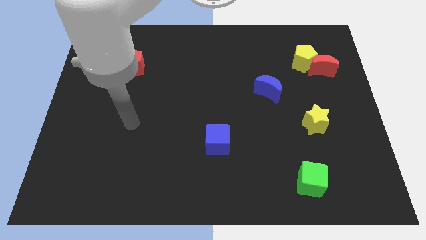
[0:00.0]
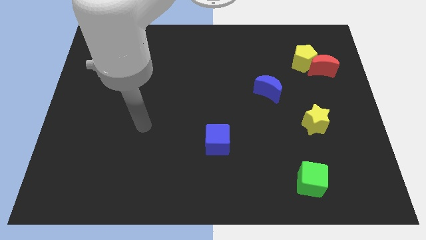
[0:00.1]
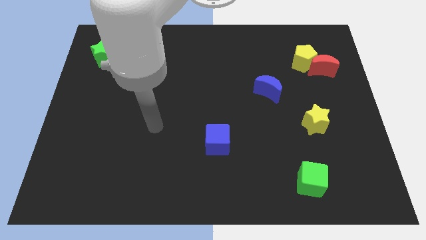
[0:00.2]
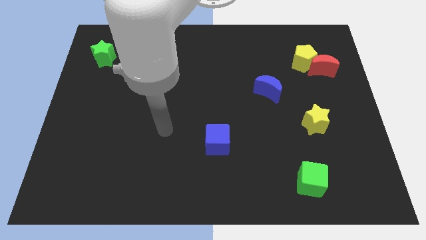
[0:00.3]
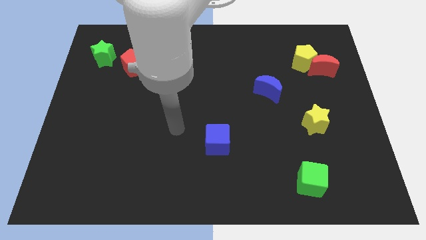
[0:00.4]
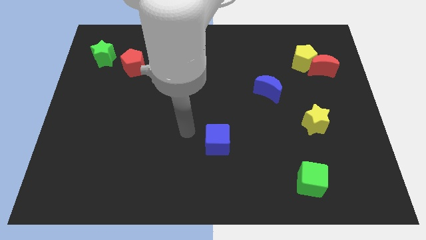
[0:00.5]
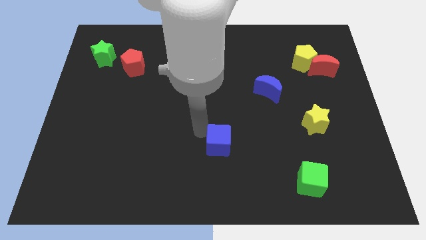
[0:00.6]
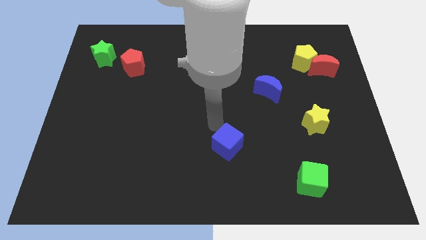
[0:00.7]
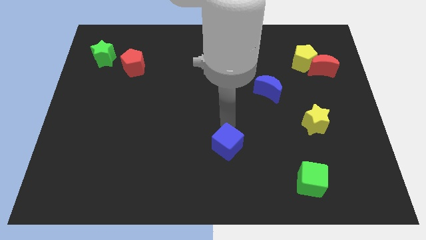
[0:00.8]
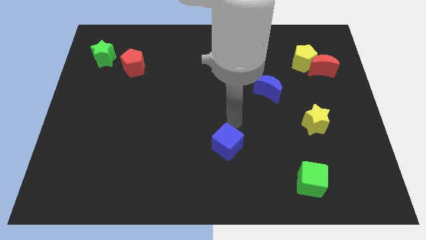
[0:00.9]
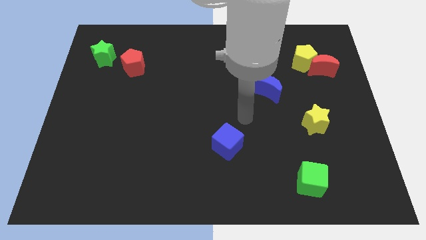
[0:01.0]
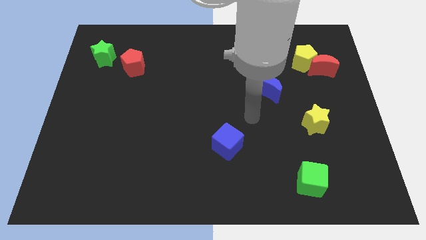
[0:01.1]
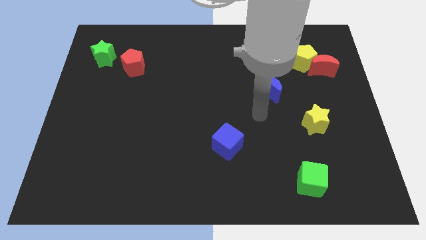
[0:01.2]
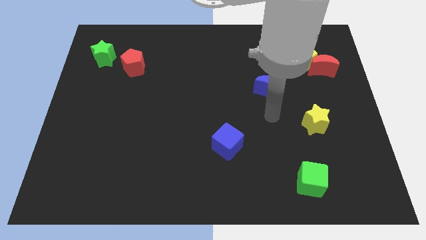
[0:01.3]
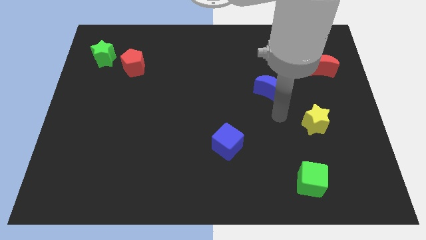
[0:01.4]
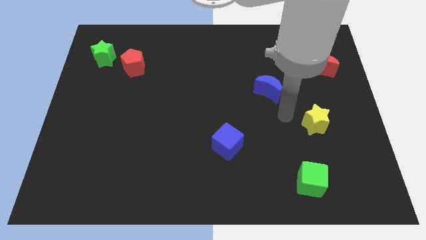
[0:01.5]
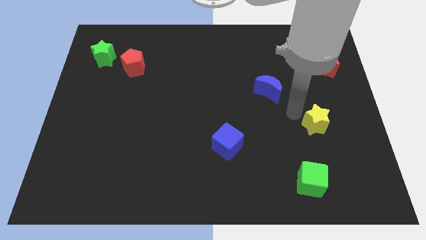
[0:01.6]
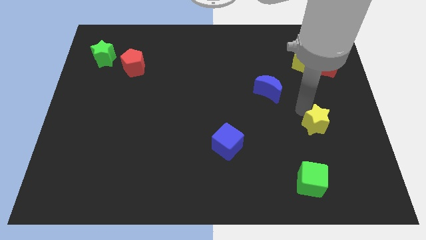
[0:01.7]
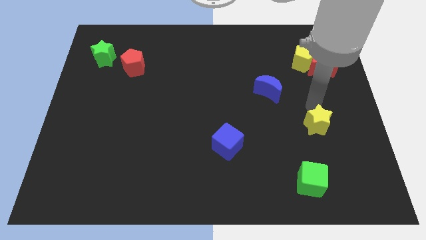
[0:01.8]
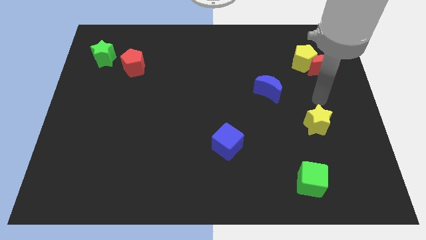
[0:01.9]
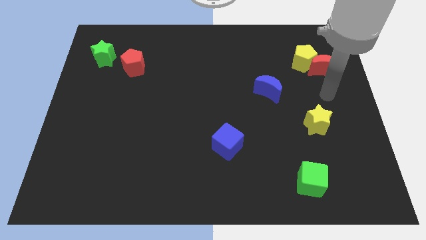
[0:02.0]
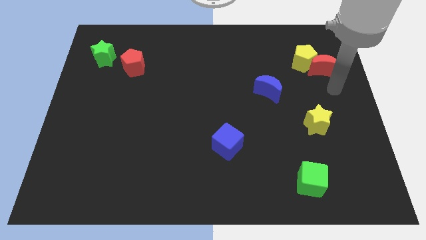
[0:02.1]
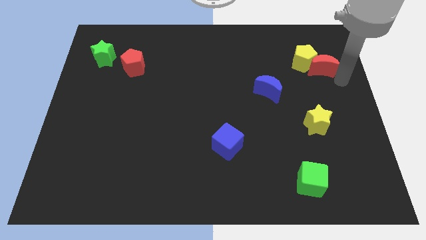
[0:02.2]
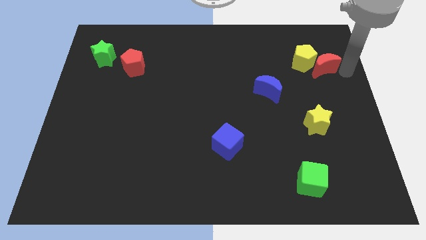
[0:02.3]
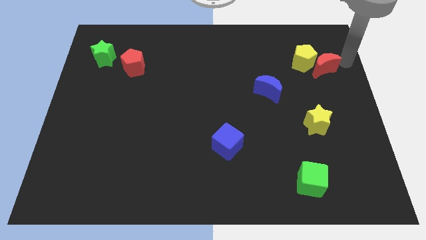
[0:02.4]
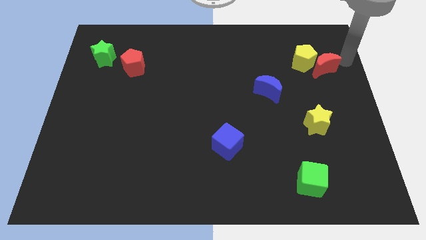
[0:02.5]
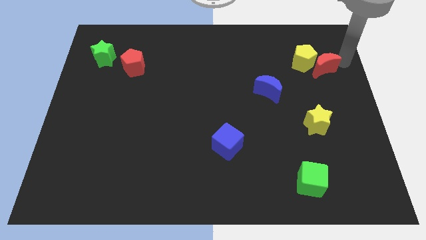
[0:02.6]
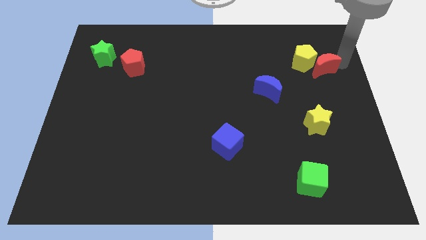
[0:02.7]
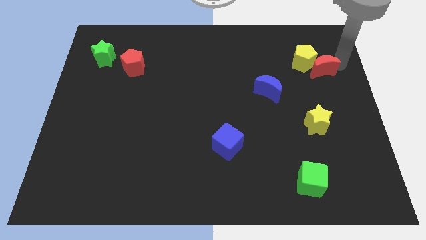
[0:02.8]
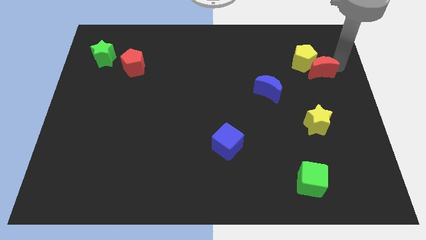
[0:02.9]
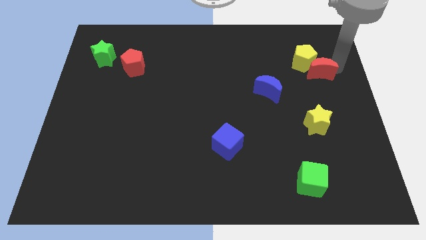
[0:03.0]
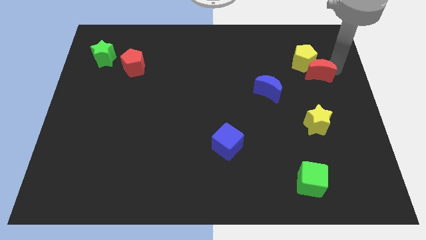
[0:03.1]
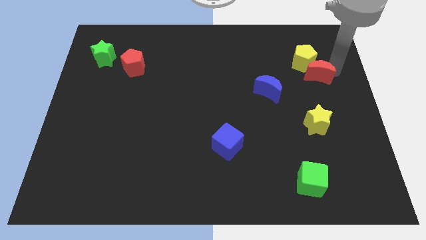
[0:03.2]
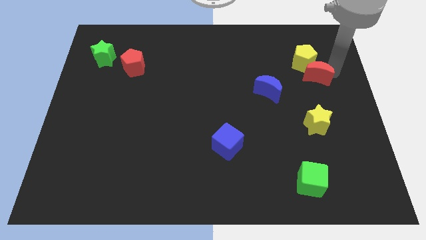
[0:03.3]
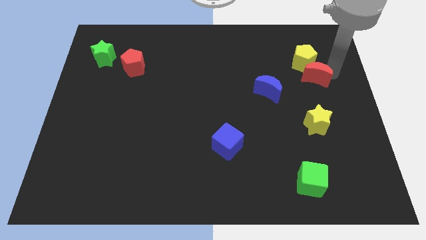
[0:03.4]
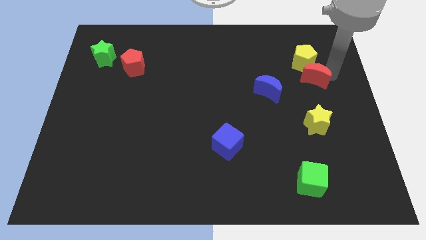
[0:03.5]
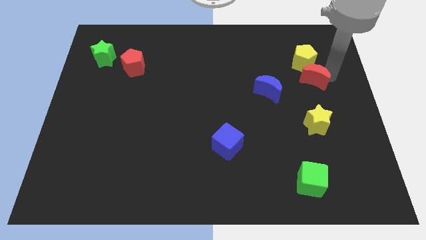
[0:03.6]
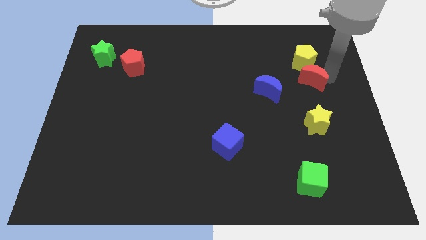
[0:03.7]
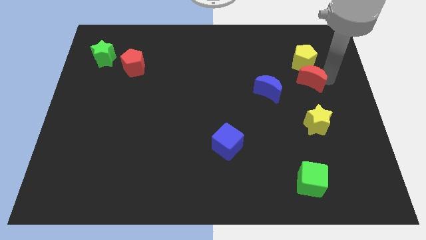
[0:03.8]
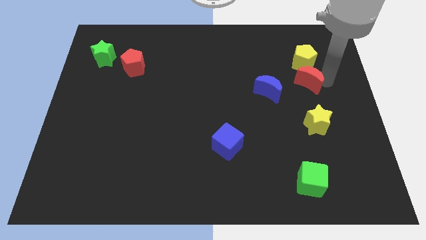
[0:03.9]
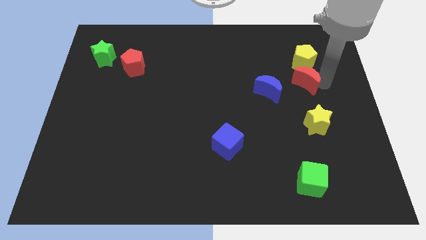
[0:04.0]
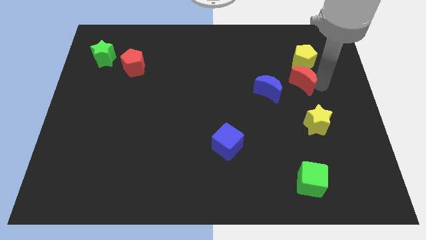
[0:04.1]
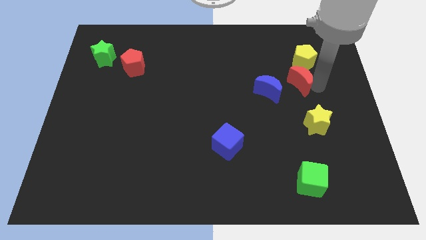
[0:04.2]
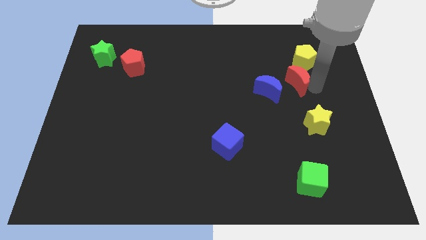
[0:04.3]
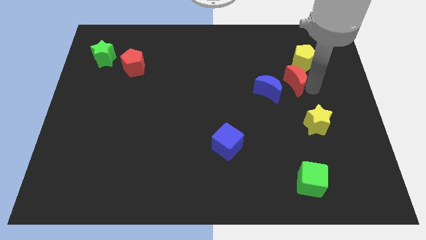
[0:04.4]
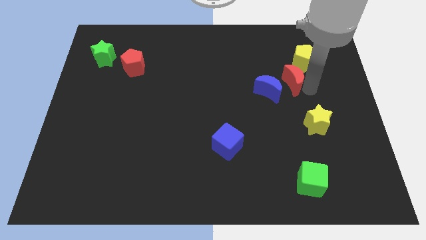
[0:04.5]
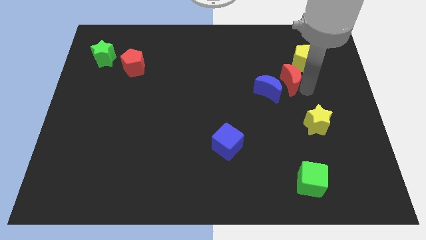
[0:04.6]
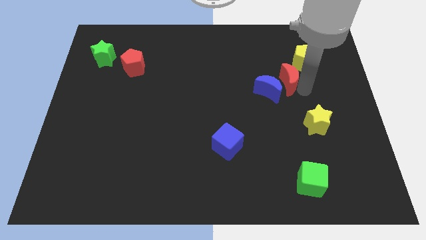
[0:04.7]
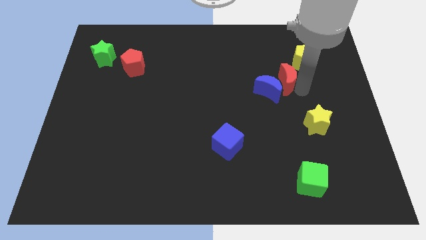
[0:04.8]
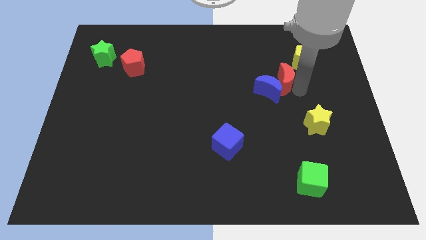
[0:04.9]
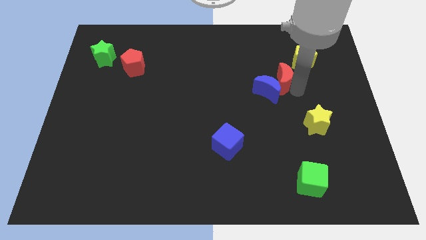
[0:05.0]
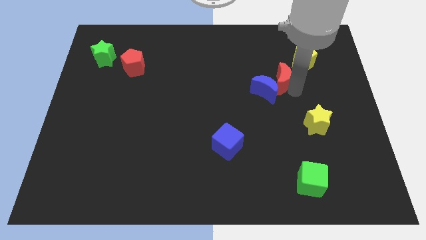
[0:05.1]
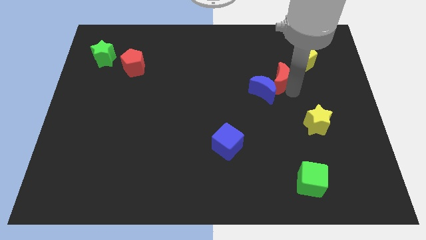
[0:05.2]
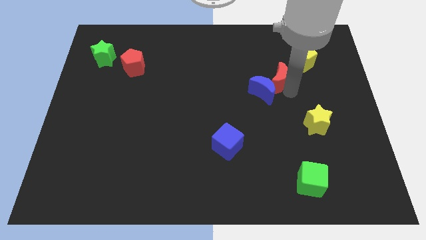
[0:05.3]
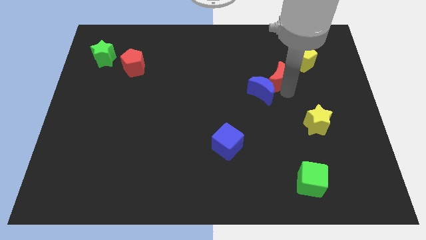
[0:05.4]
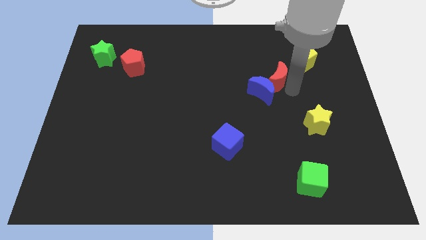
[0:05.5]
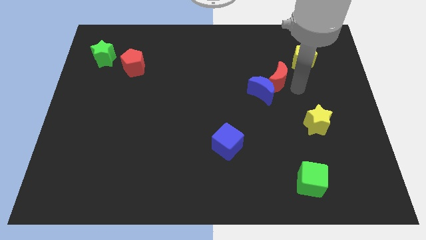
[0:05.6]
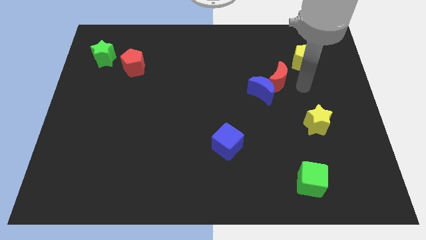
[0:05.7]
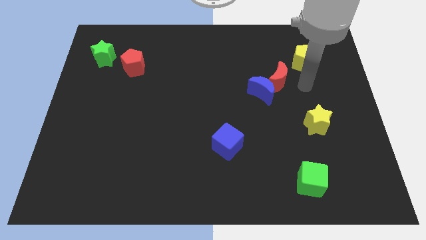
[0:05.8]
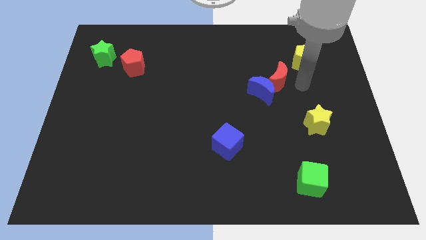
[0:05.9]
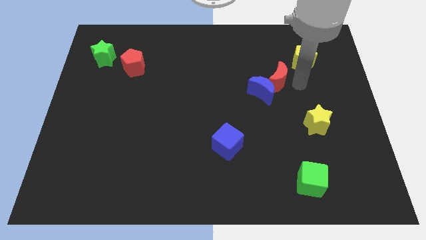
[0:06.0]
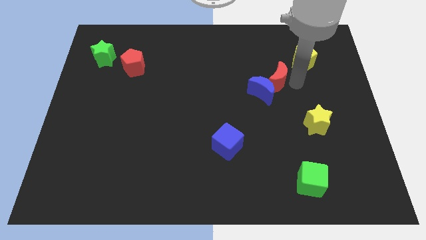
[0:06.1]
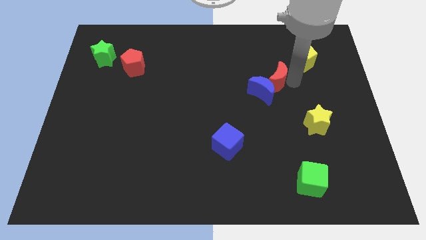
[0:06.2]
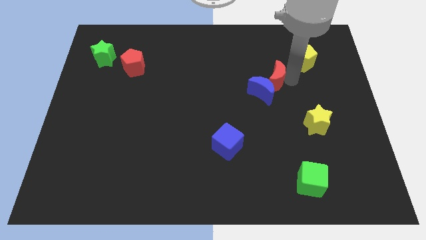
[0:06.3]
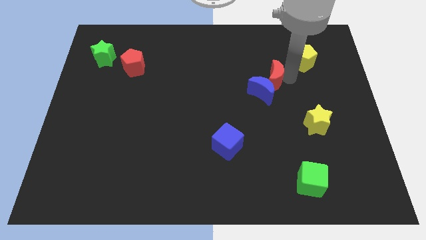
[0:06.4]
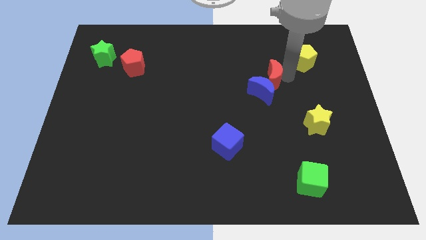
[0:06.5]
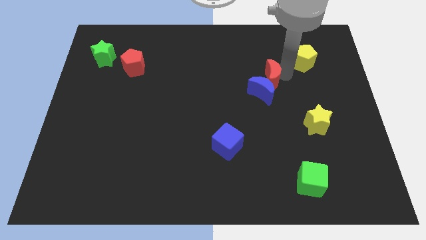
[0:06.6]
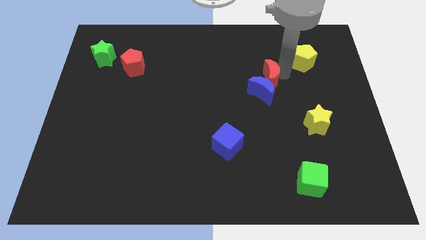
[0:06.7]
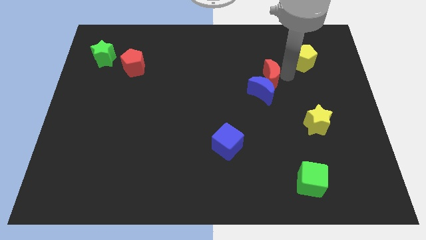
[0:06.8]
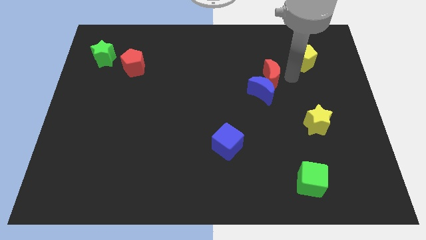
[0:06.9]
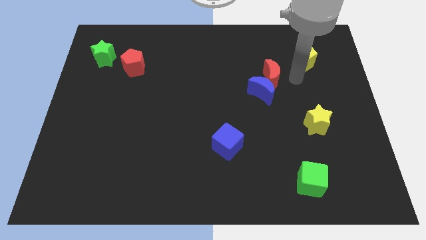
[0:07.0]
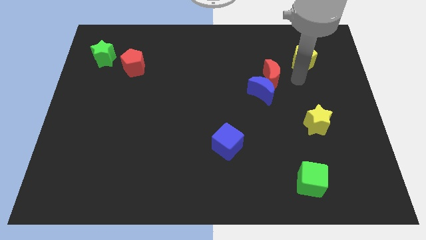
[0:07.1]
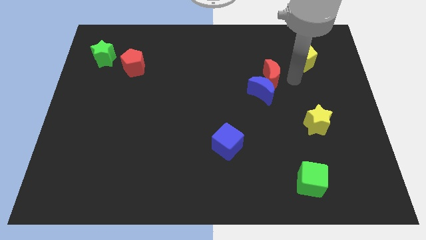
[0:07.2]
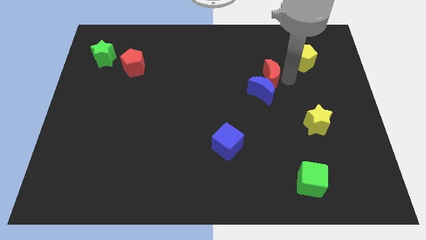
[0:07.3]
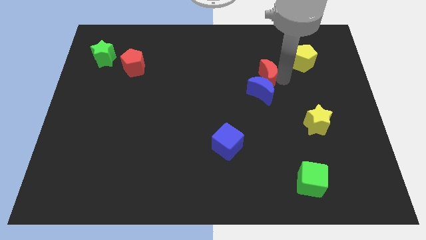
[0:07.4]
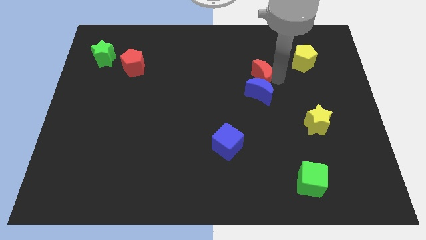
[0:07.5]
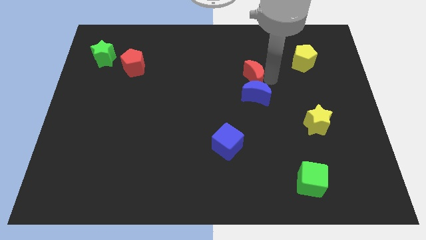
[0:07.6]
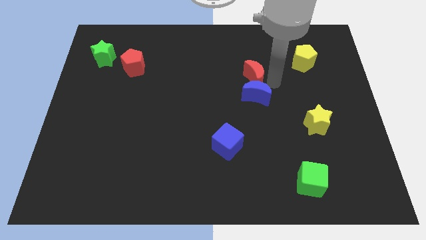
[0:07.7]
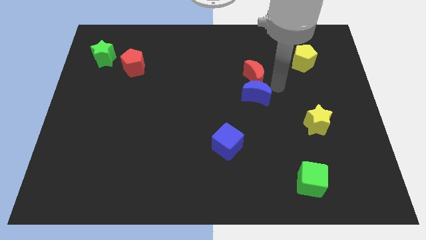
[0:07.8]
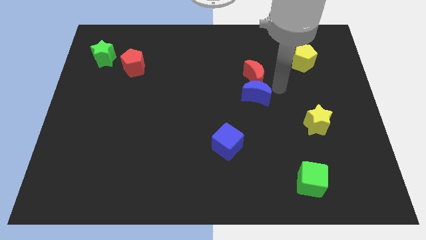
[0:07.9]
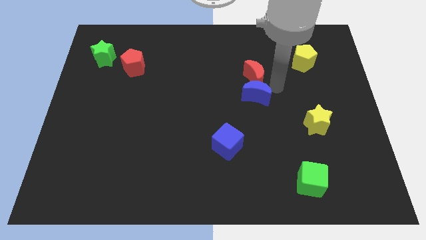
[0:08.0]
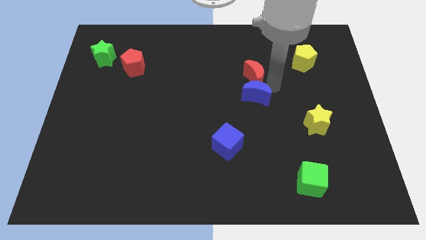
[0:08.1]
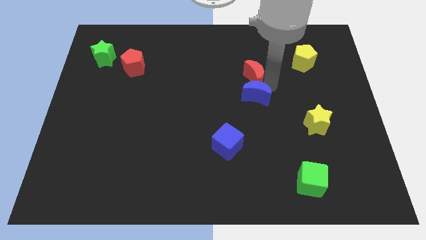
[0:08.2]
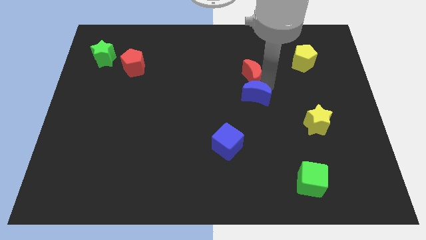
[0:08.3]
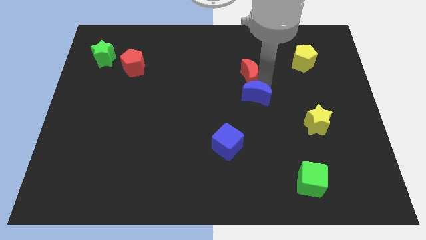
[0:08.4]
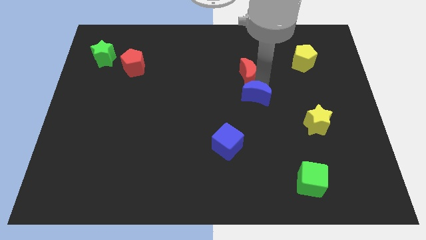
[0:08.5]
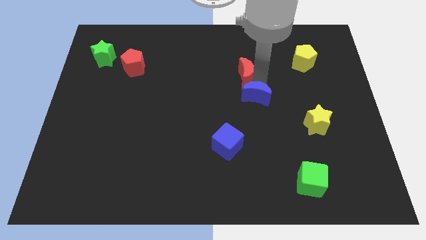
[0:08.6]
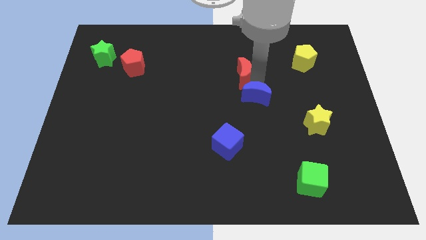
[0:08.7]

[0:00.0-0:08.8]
slide the red moon left
